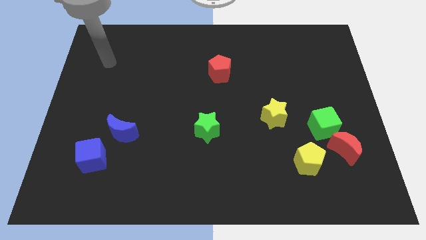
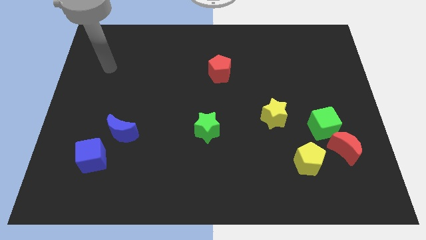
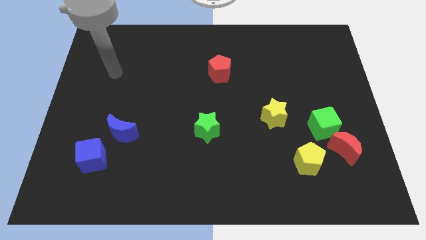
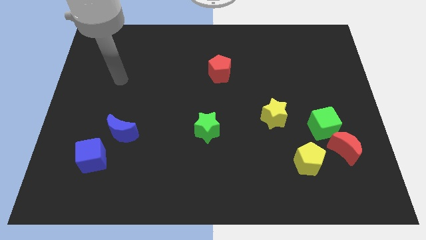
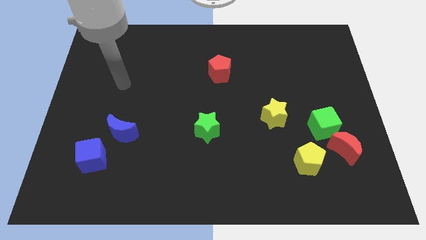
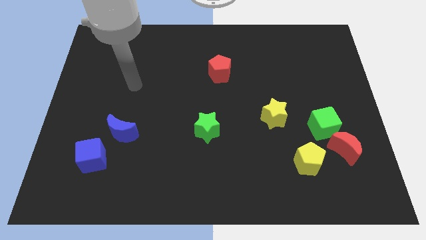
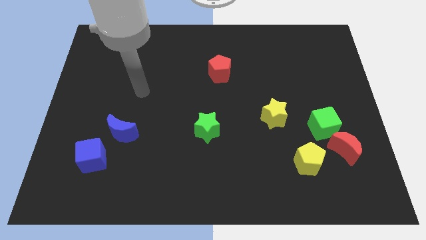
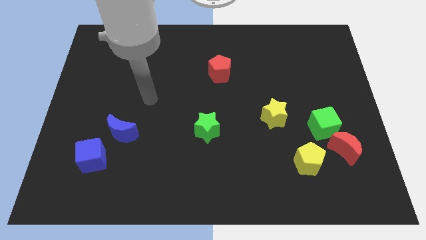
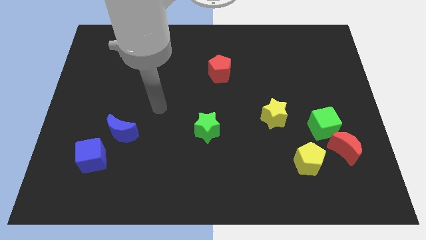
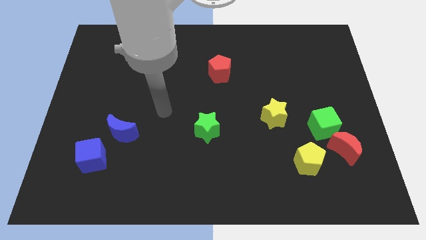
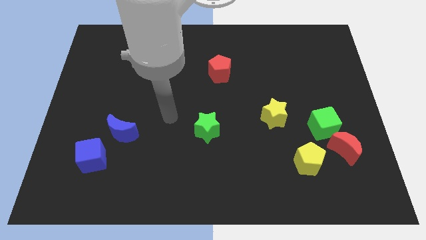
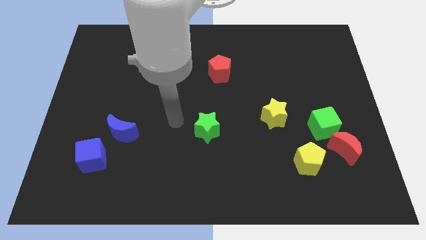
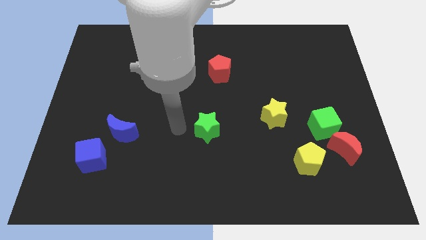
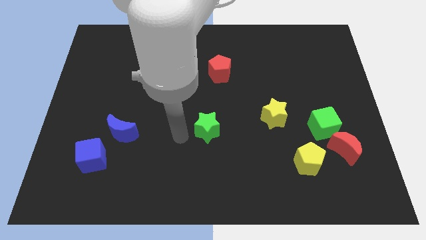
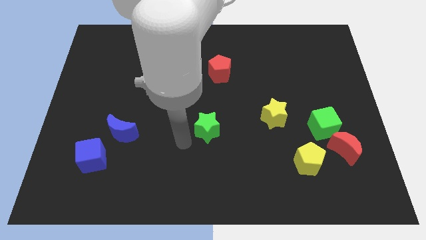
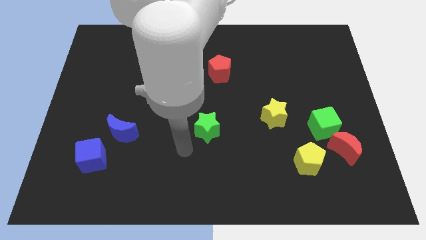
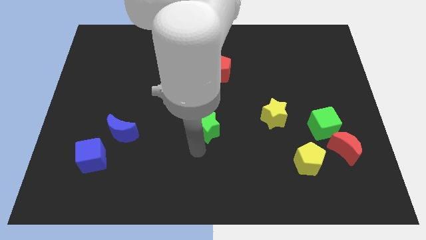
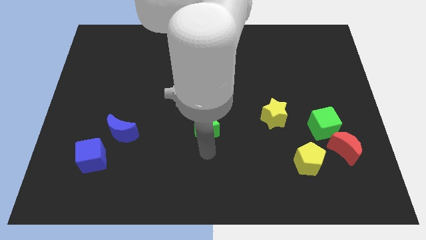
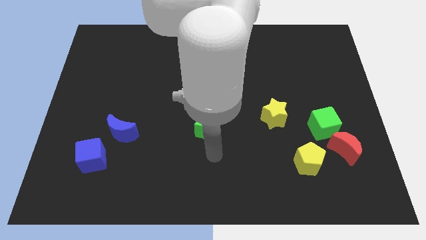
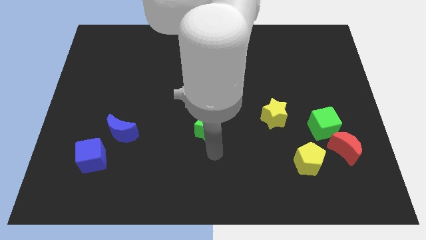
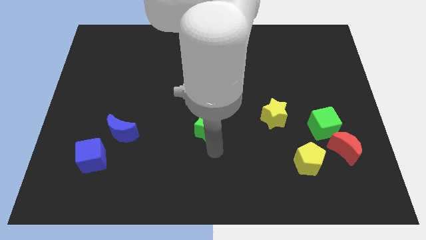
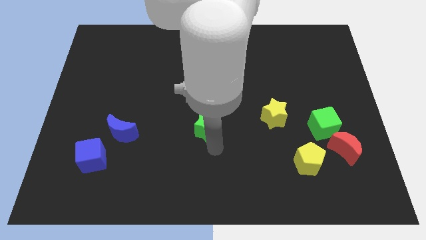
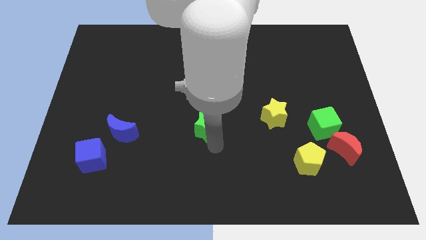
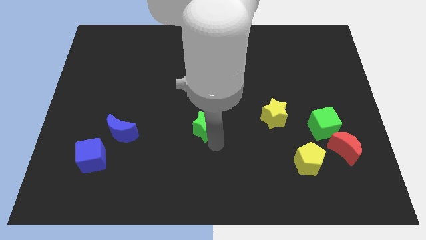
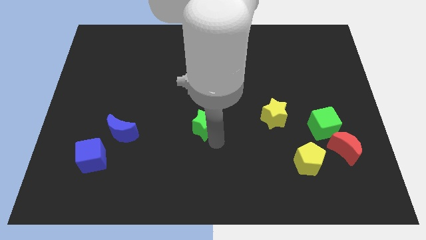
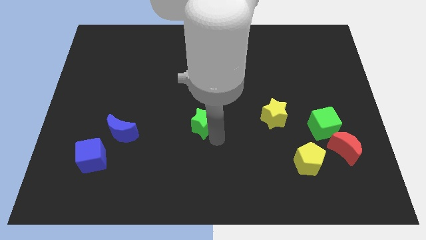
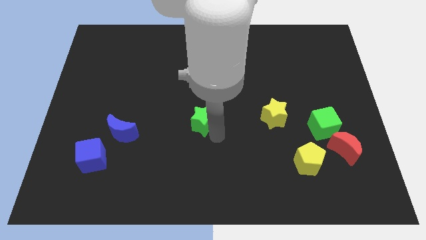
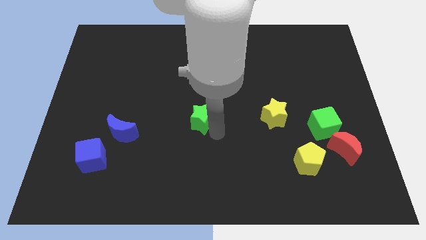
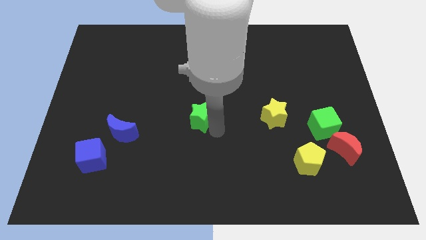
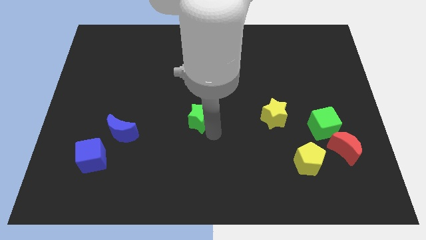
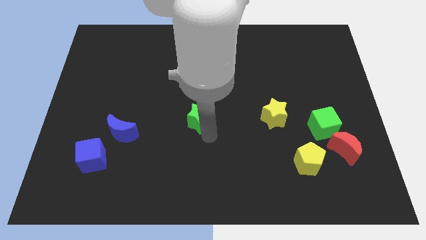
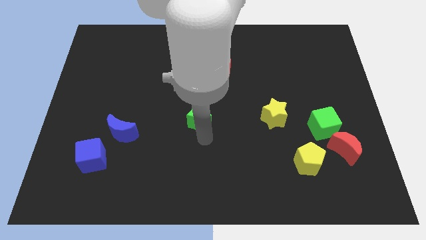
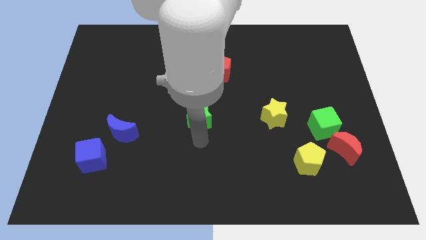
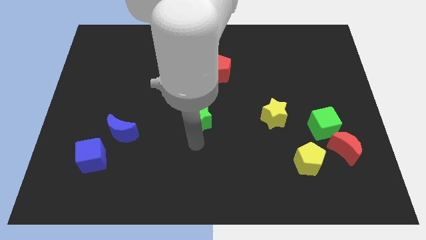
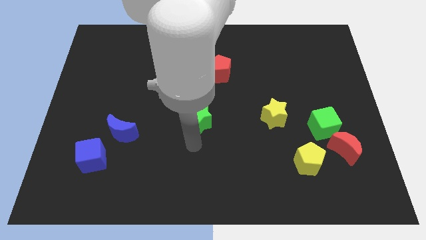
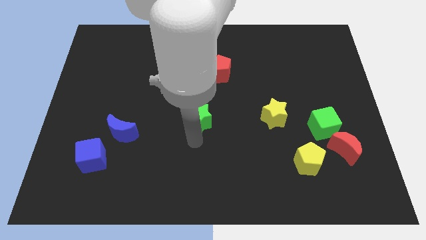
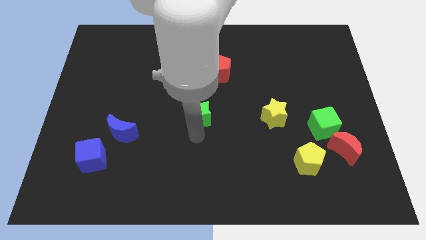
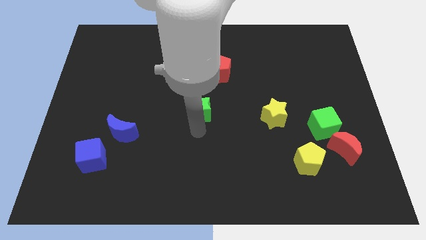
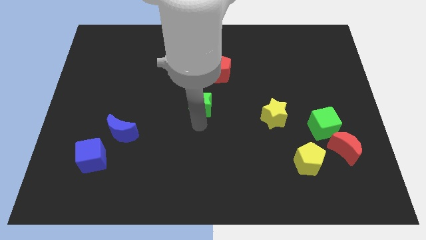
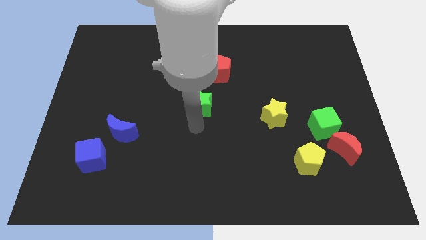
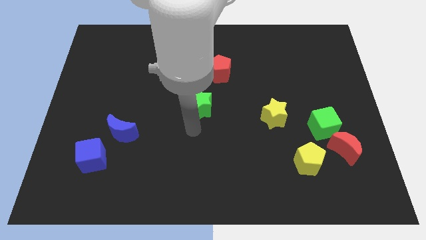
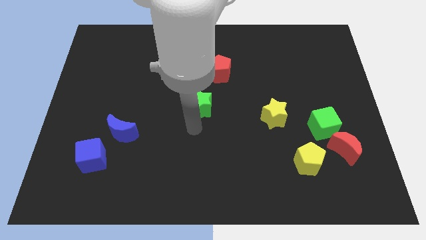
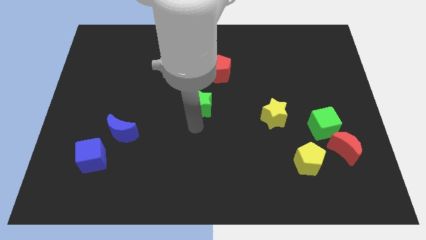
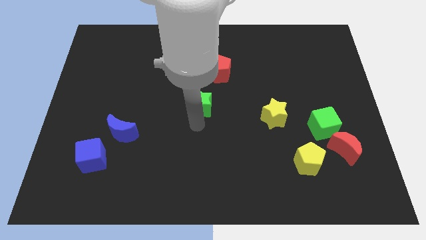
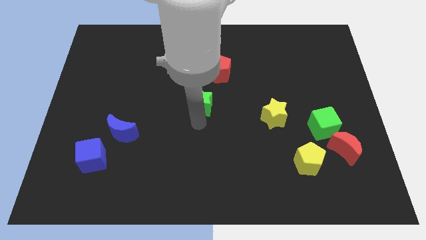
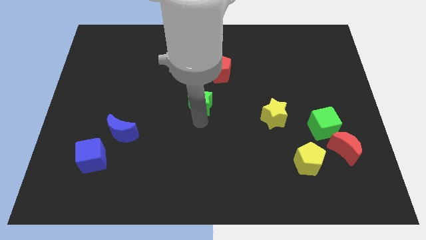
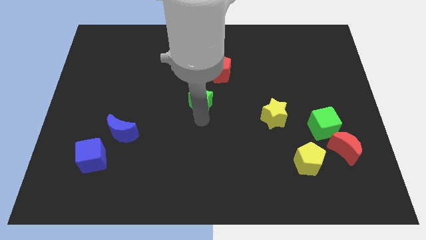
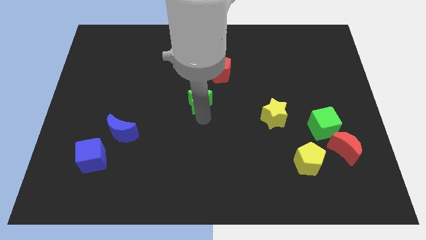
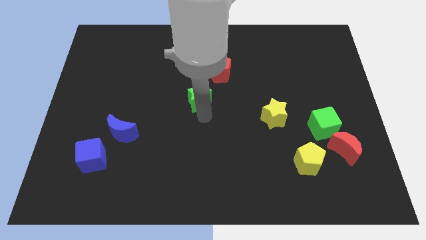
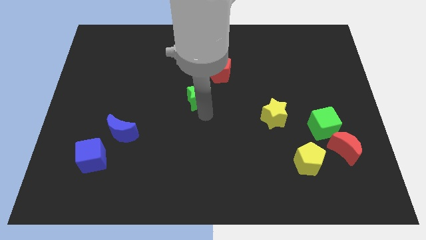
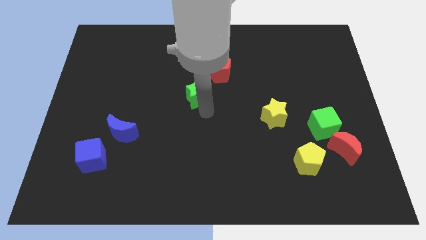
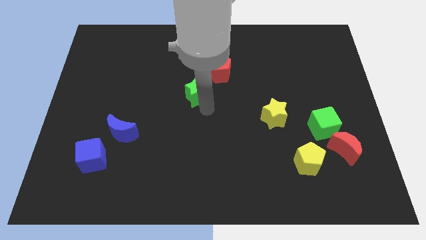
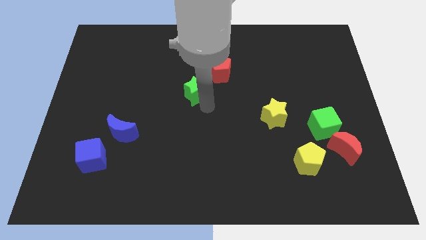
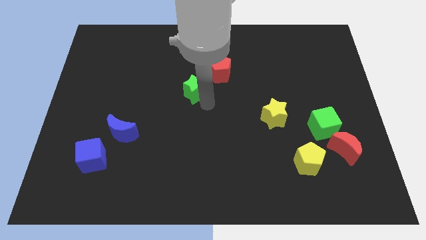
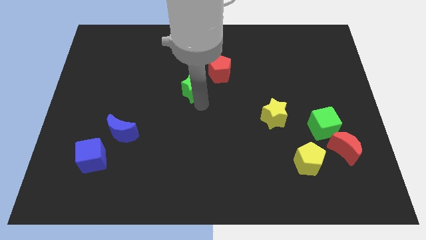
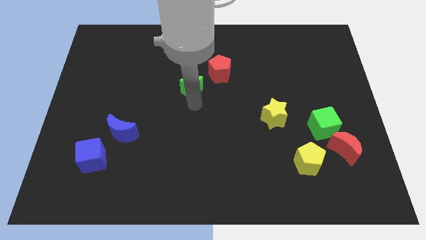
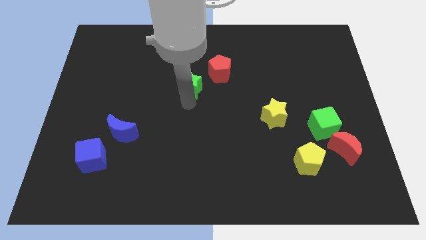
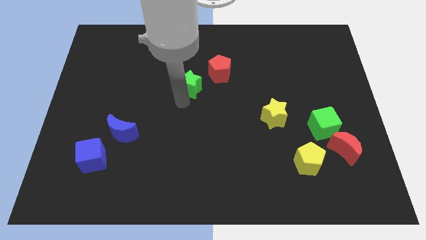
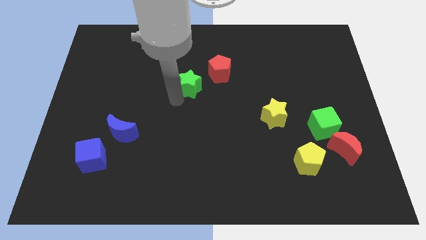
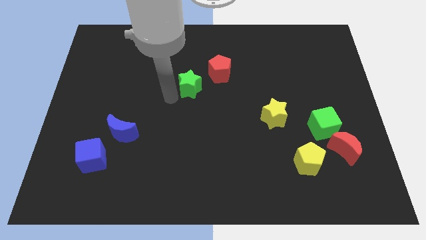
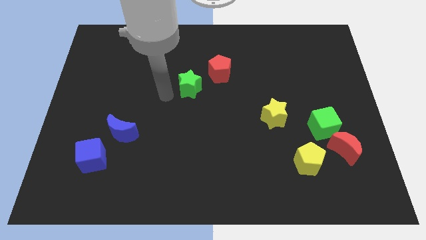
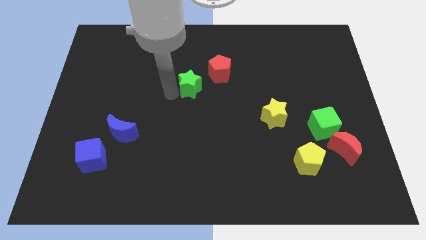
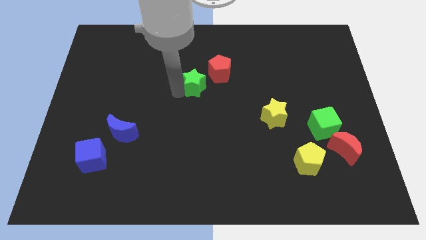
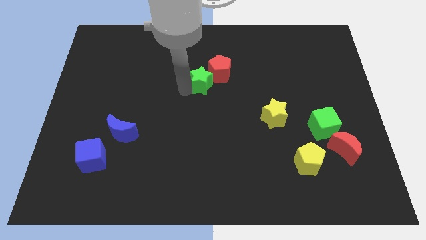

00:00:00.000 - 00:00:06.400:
slide the green star towards the red pentagon

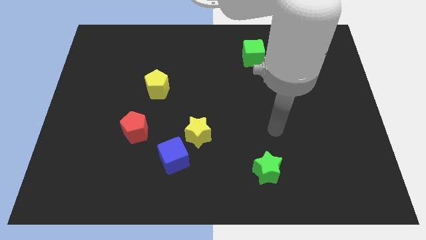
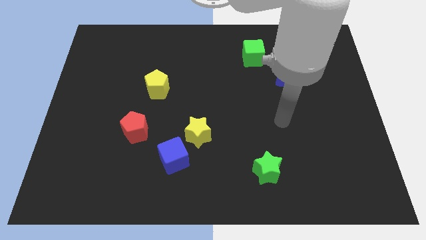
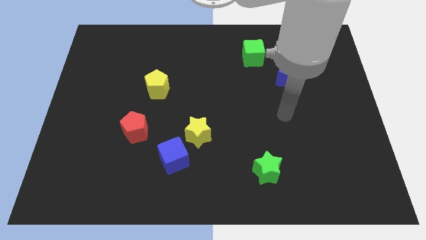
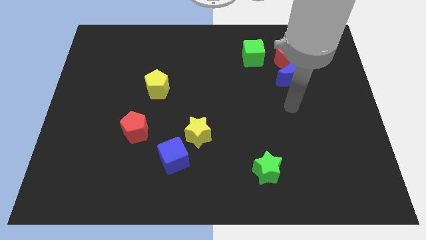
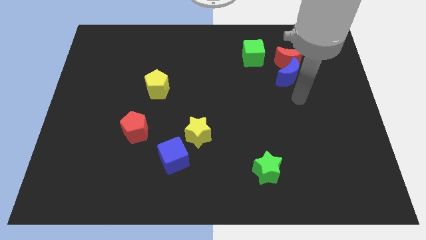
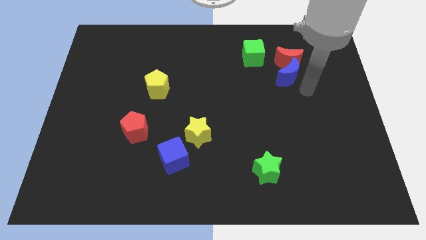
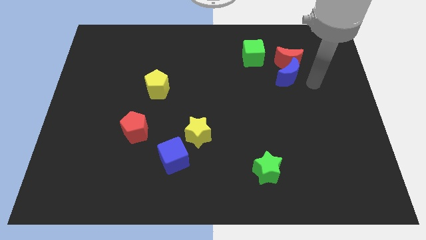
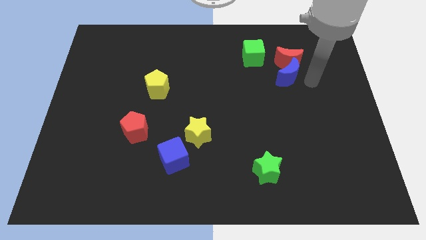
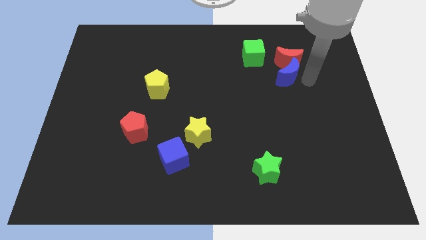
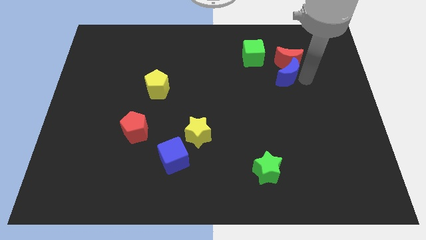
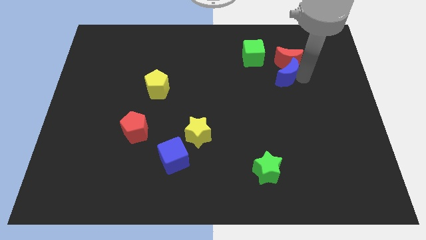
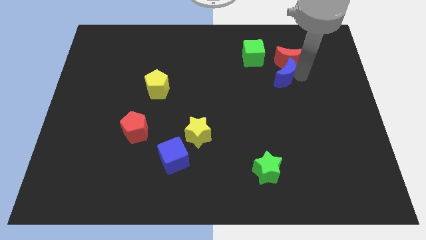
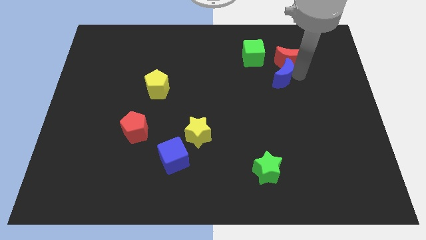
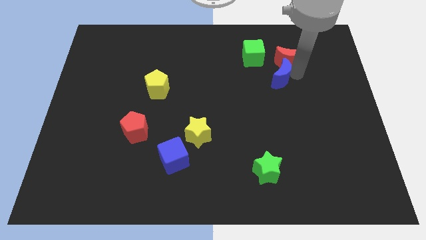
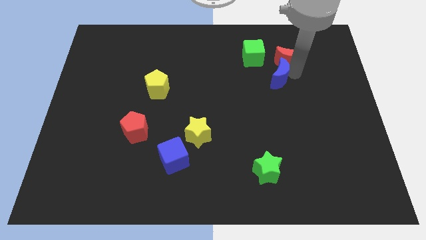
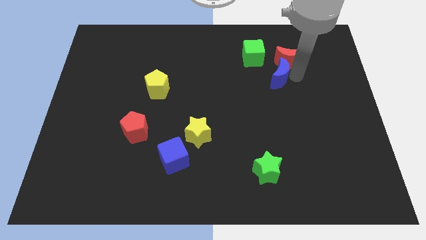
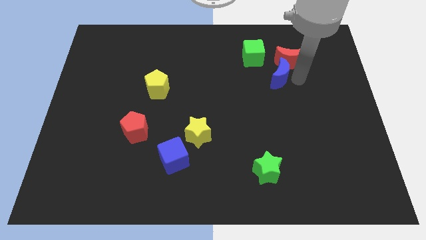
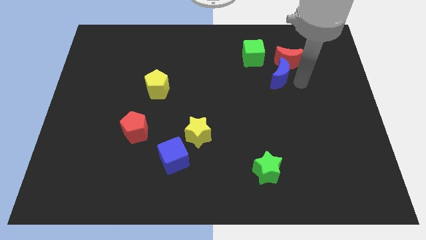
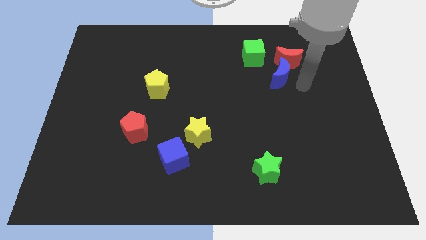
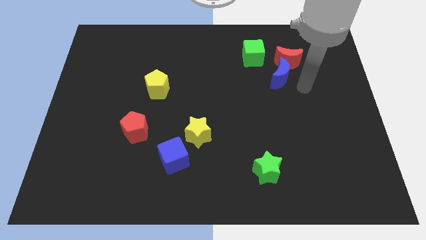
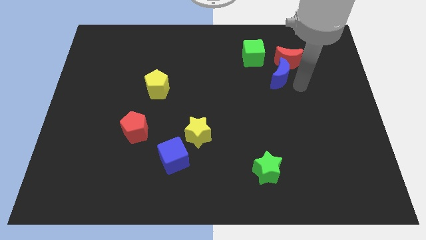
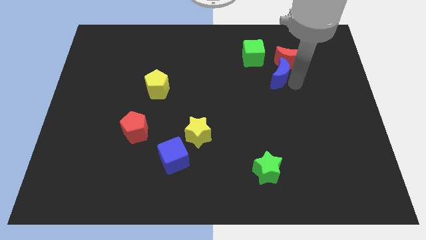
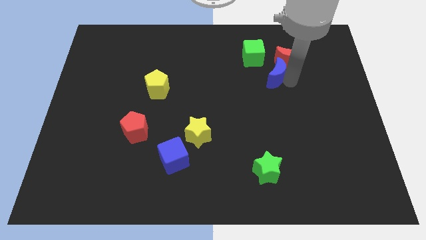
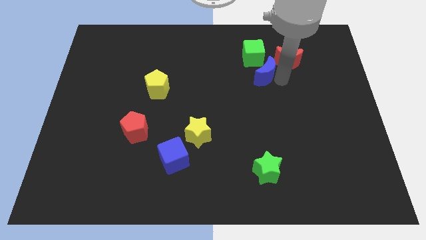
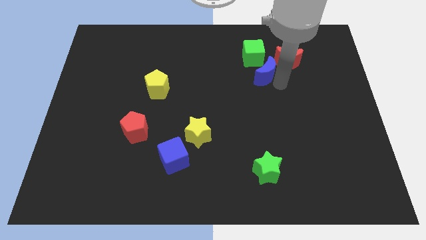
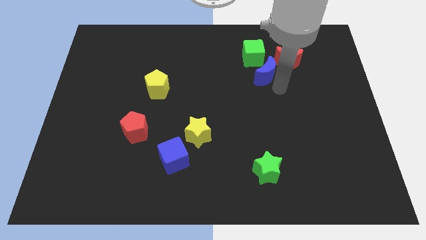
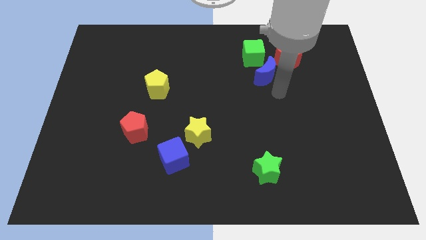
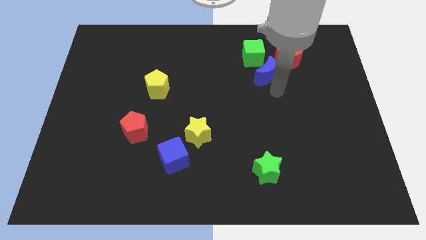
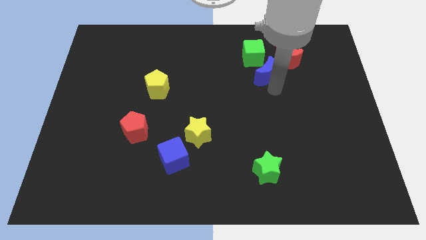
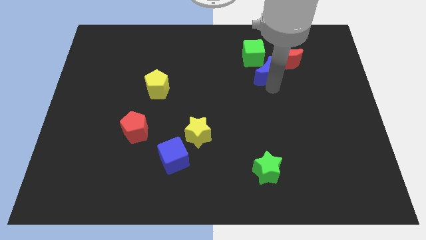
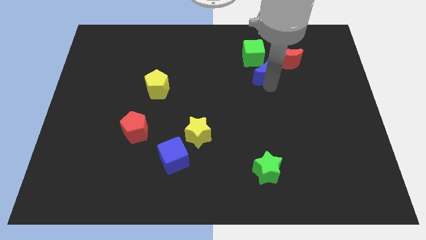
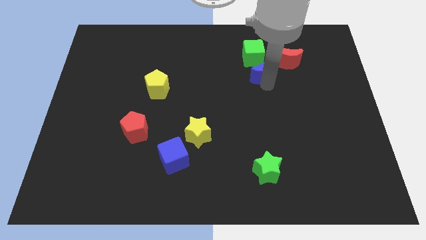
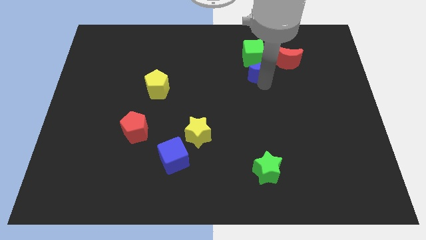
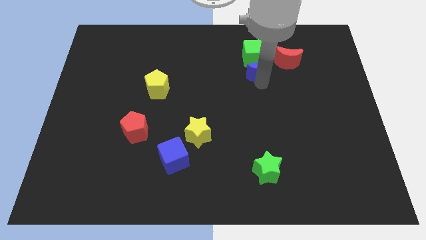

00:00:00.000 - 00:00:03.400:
put the blue moon to the green cube
